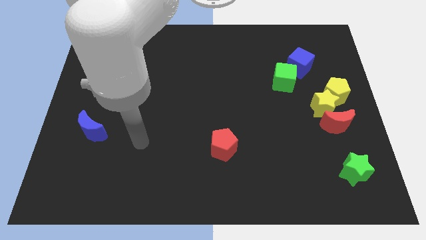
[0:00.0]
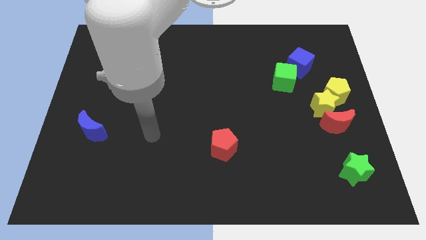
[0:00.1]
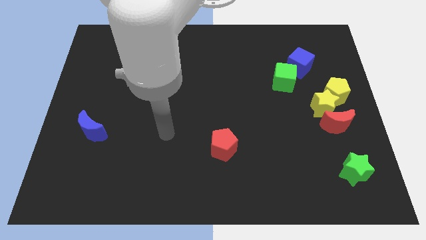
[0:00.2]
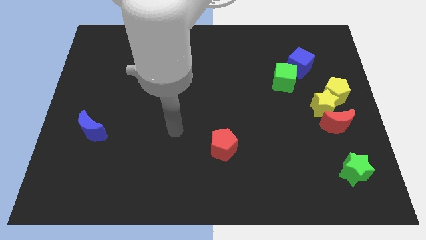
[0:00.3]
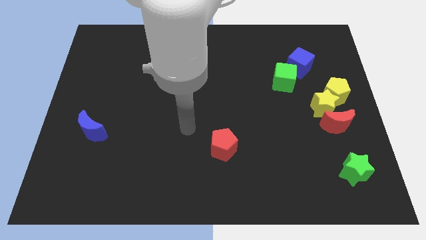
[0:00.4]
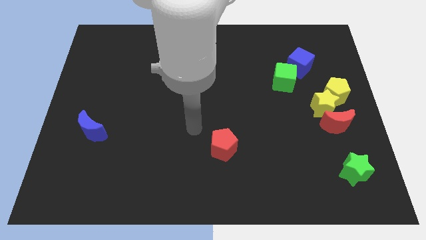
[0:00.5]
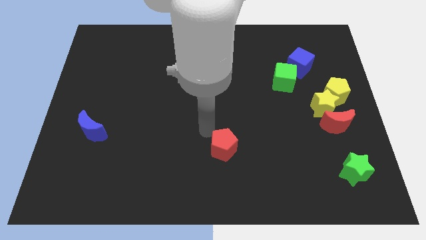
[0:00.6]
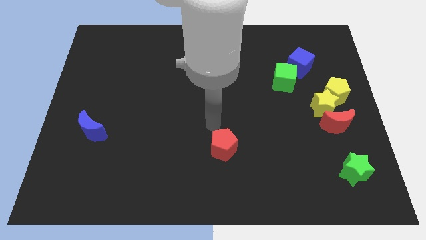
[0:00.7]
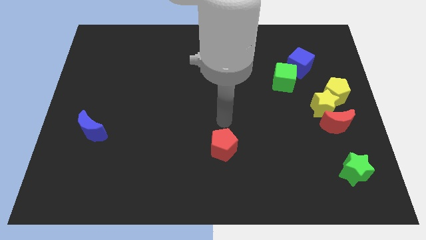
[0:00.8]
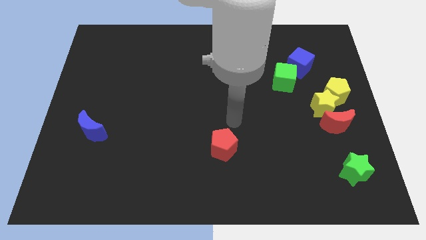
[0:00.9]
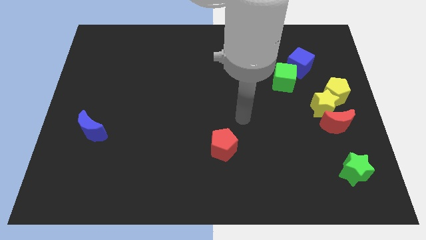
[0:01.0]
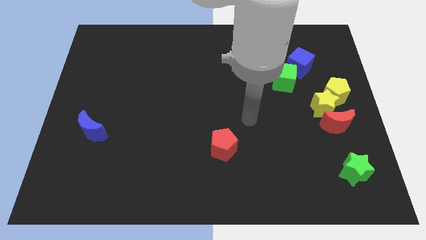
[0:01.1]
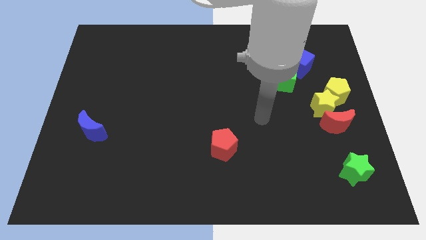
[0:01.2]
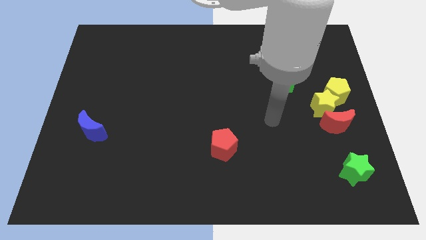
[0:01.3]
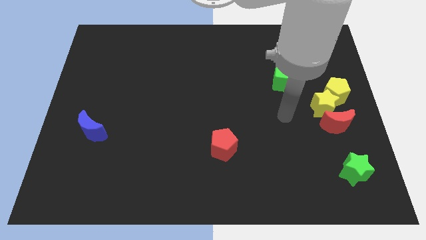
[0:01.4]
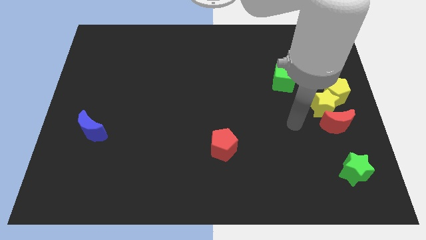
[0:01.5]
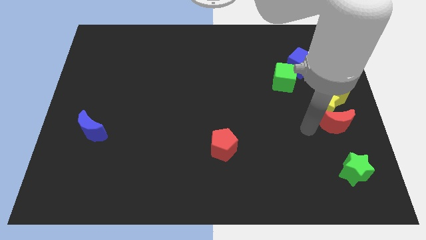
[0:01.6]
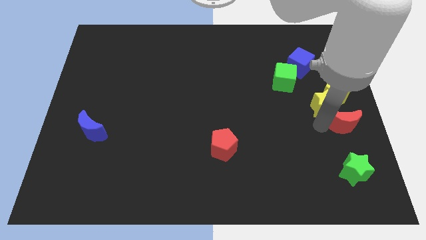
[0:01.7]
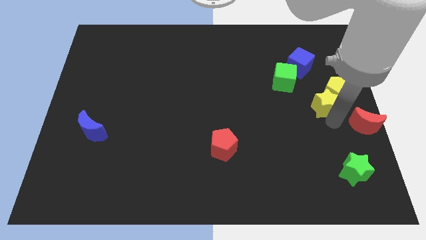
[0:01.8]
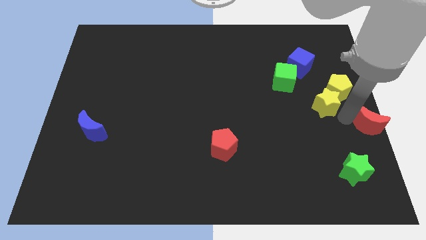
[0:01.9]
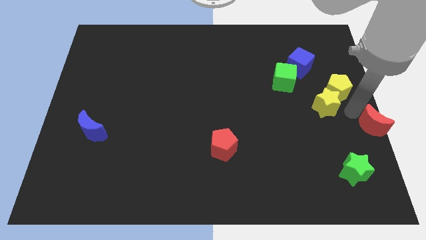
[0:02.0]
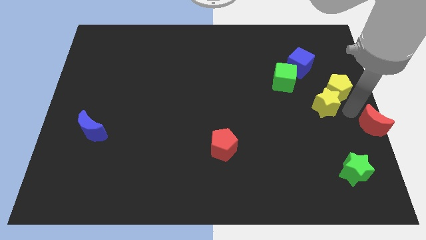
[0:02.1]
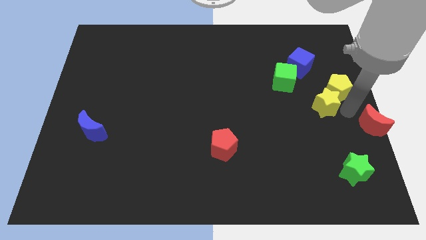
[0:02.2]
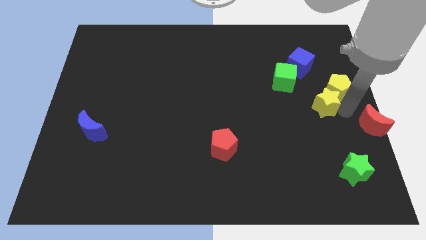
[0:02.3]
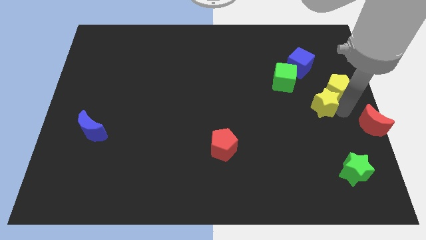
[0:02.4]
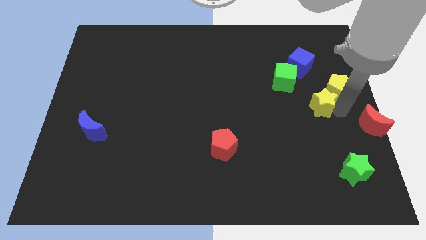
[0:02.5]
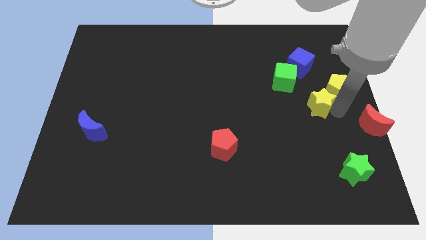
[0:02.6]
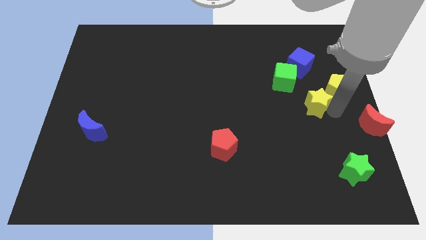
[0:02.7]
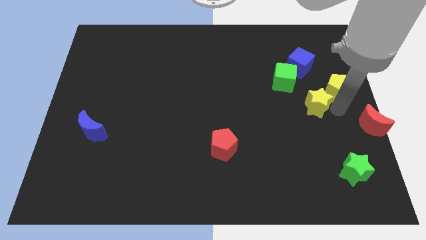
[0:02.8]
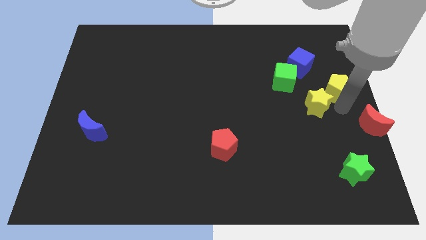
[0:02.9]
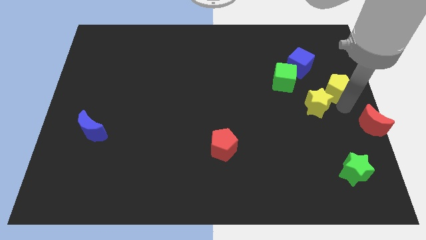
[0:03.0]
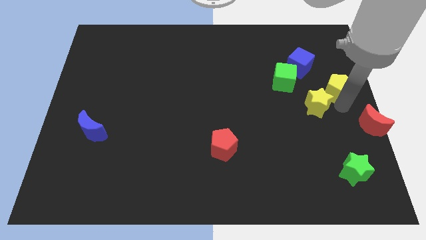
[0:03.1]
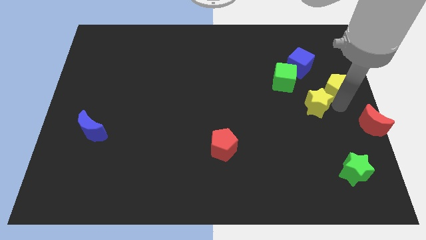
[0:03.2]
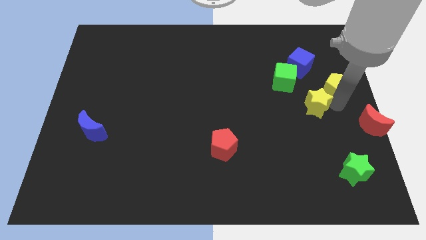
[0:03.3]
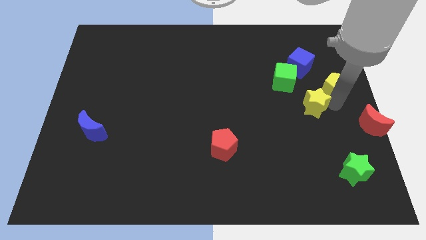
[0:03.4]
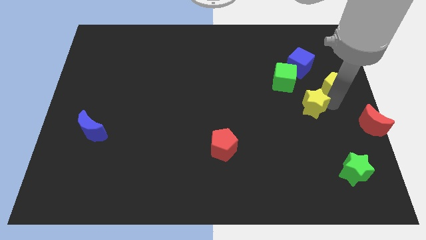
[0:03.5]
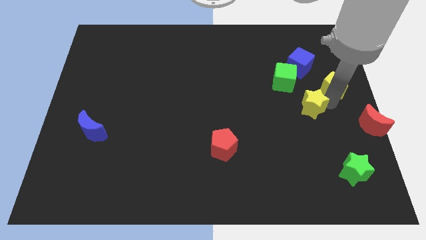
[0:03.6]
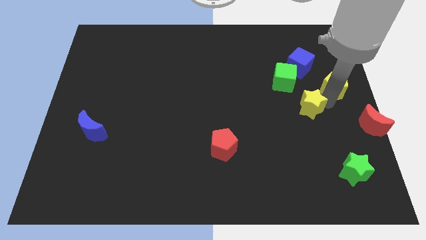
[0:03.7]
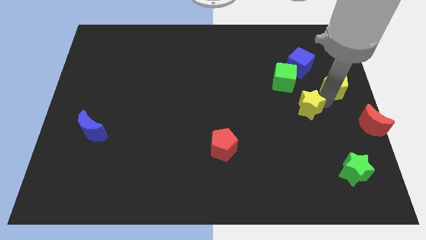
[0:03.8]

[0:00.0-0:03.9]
pull the yellow star apart from the yellow pentagon and red moon

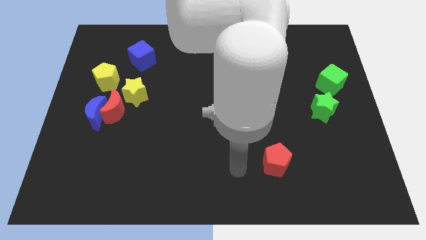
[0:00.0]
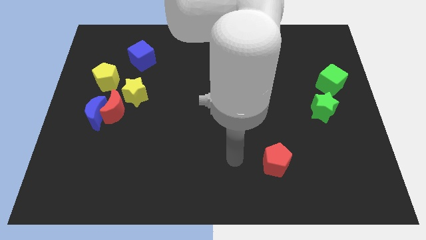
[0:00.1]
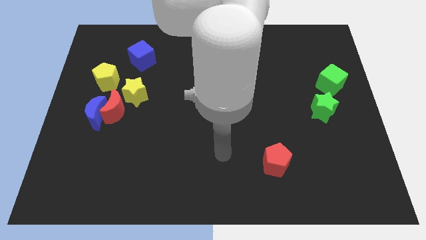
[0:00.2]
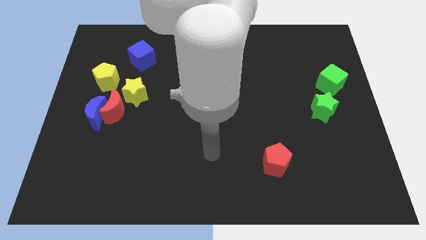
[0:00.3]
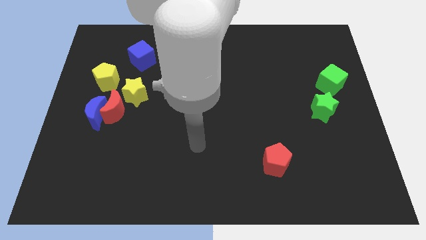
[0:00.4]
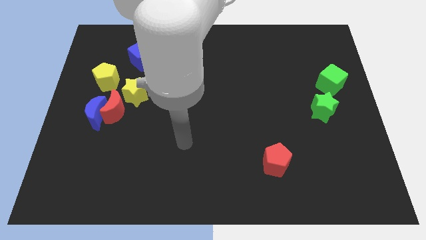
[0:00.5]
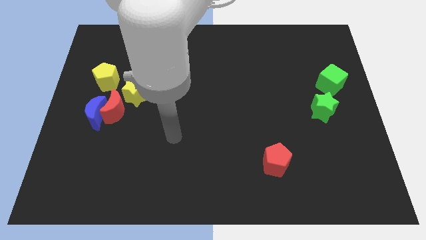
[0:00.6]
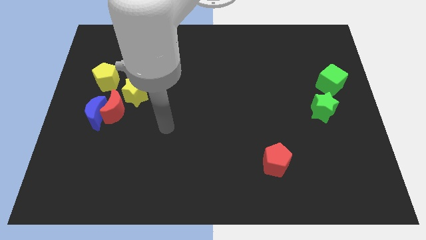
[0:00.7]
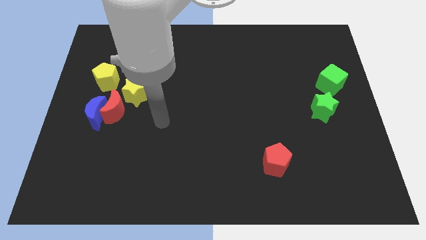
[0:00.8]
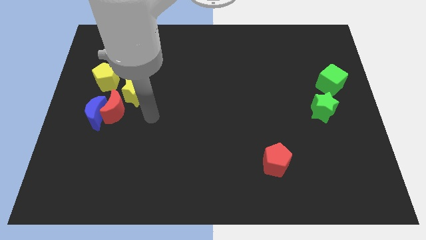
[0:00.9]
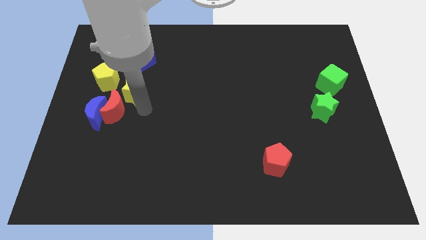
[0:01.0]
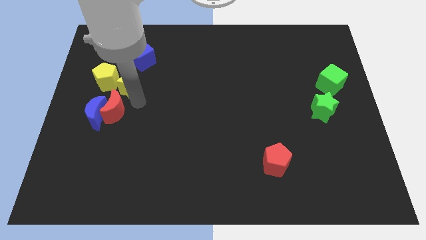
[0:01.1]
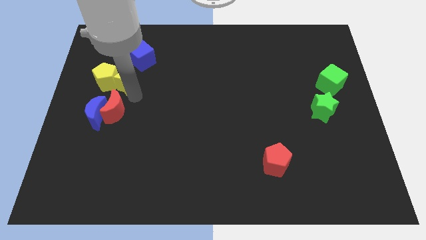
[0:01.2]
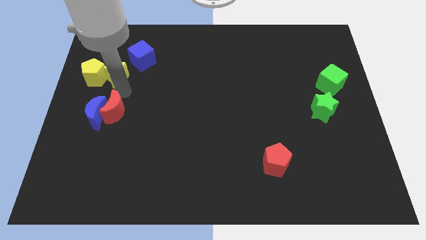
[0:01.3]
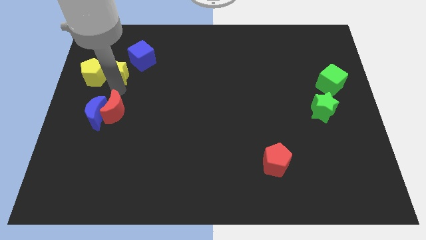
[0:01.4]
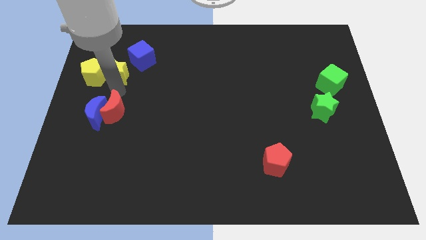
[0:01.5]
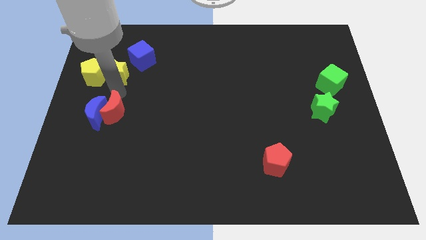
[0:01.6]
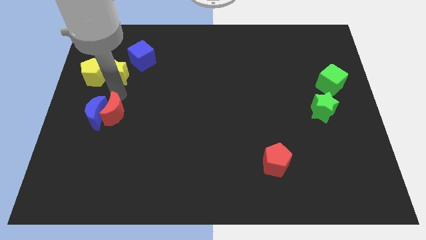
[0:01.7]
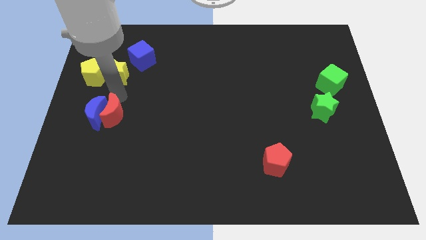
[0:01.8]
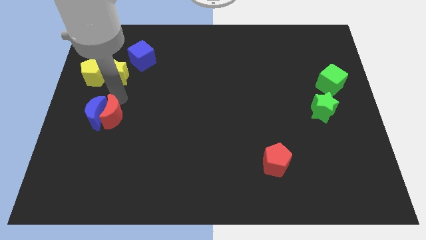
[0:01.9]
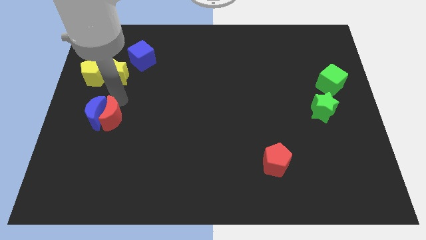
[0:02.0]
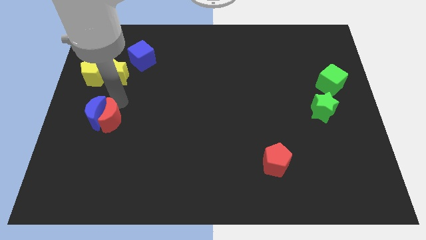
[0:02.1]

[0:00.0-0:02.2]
pull the red moon apart from the blue moon, yellow star, and yellow pentagon

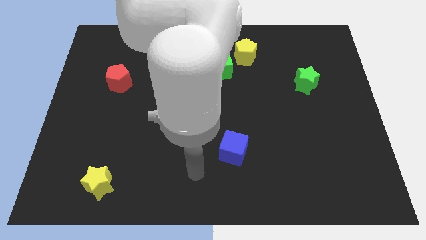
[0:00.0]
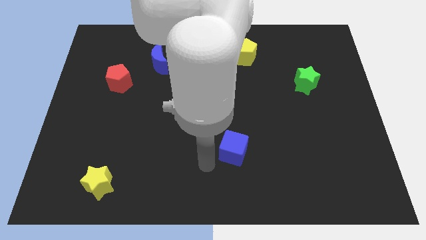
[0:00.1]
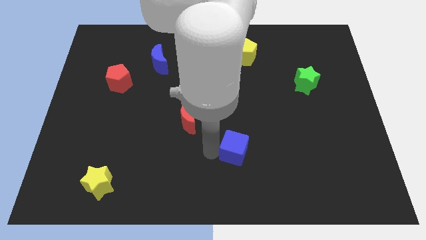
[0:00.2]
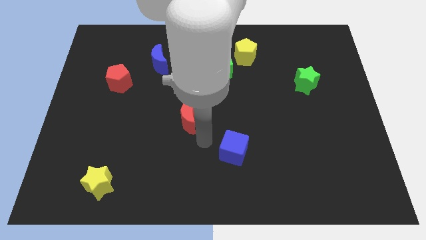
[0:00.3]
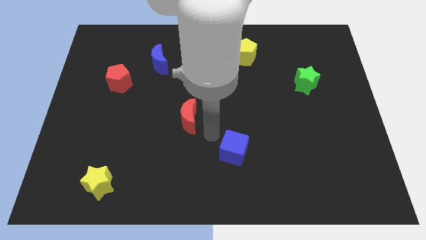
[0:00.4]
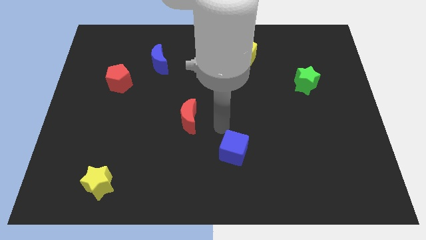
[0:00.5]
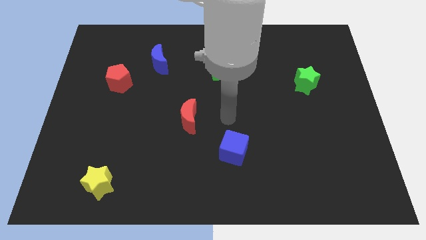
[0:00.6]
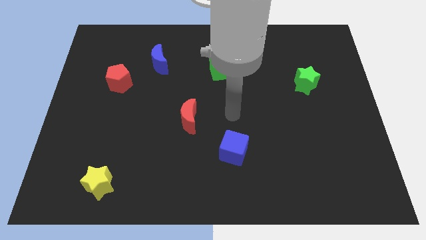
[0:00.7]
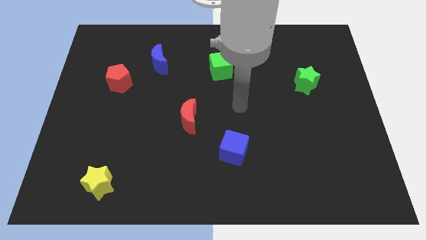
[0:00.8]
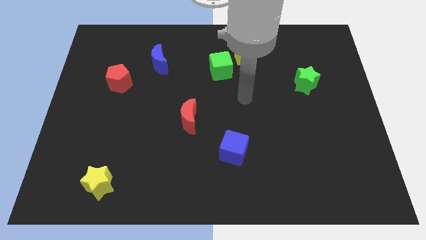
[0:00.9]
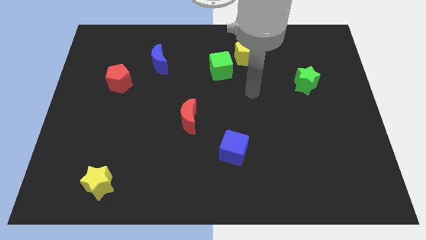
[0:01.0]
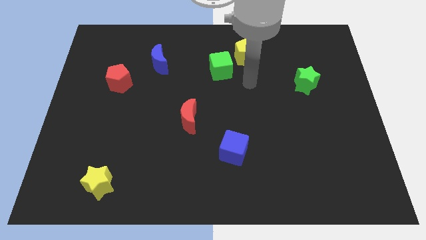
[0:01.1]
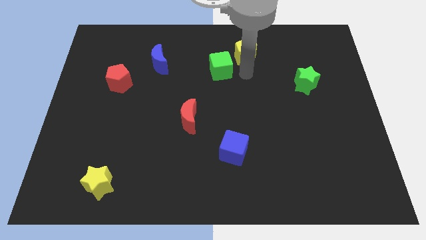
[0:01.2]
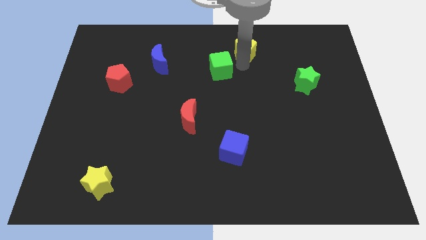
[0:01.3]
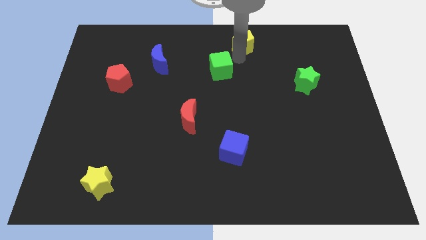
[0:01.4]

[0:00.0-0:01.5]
move the green cube away from the yellow pentagon

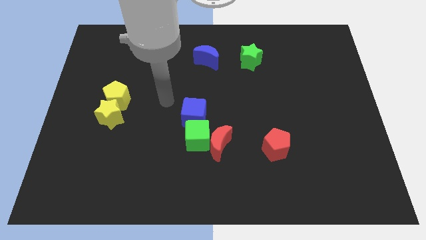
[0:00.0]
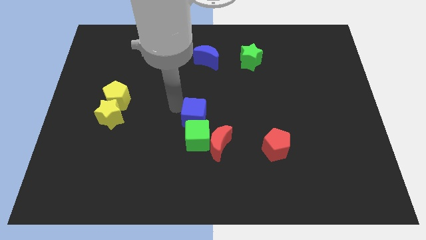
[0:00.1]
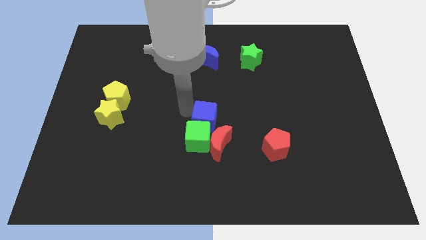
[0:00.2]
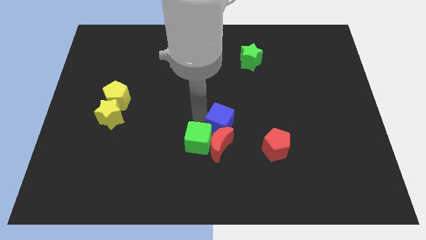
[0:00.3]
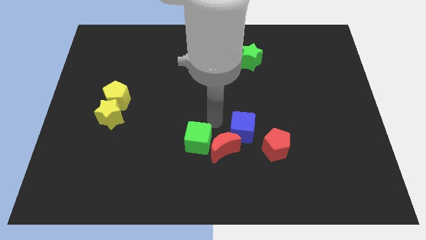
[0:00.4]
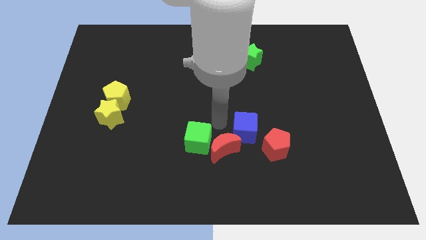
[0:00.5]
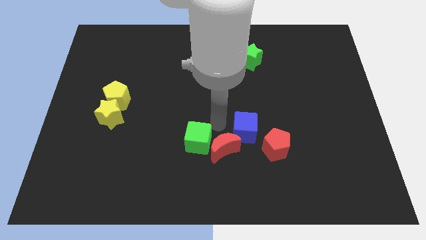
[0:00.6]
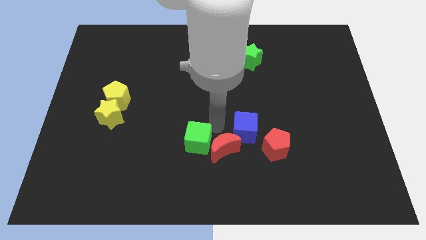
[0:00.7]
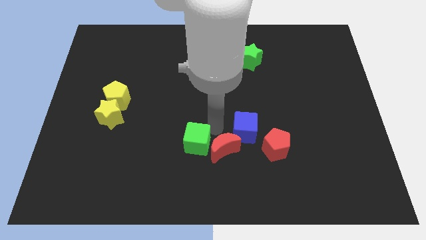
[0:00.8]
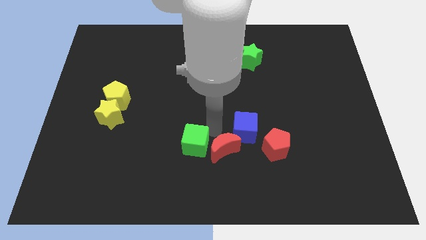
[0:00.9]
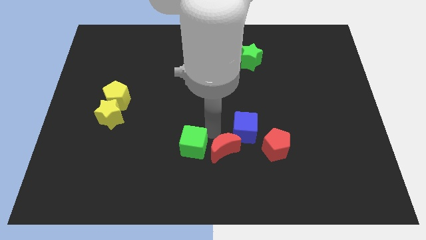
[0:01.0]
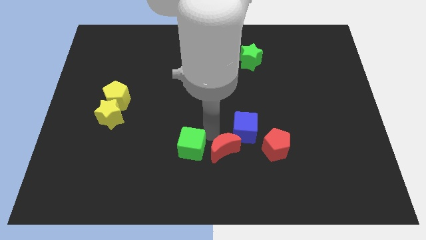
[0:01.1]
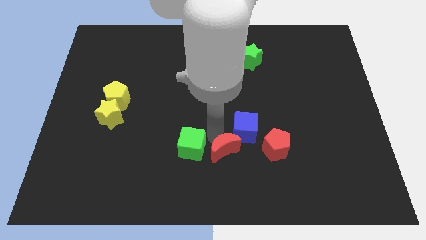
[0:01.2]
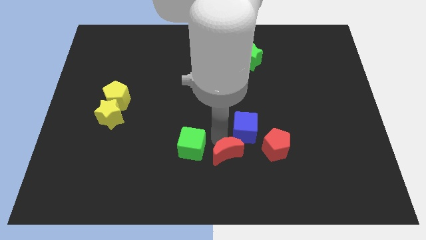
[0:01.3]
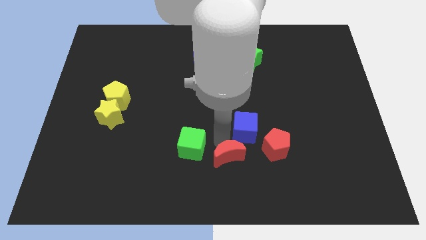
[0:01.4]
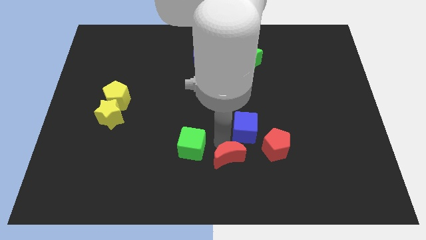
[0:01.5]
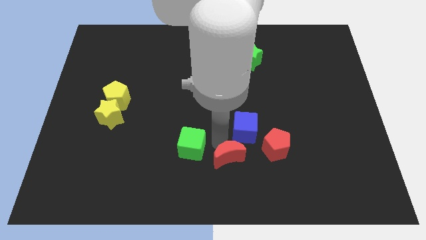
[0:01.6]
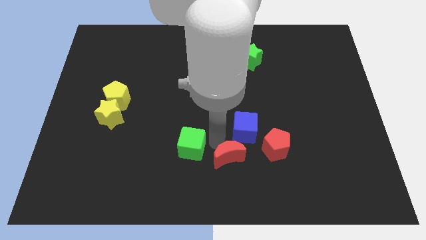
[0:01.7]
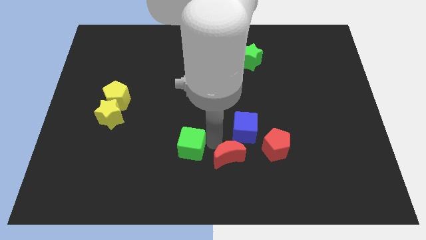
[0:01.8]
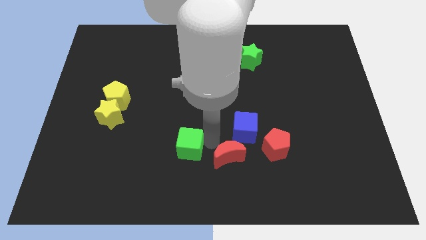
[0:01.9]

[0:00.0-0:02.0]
separate the green cube from the red moon and blue cube

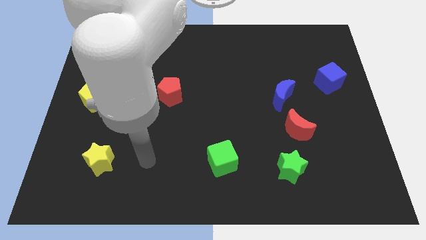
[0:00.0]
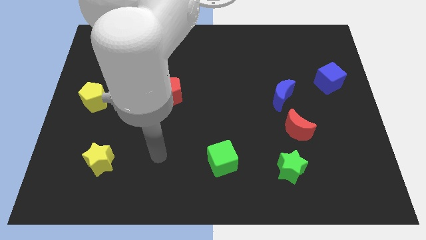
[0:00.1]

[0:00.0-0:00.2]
move the blue moon away from the red moon
